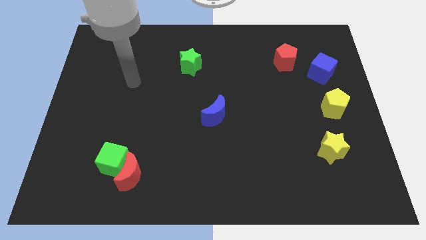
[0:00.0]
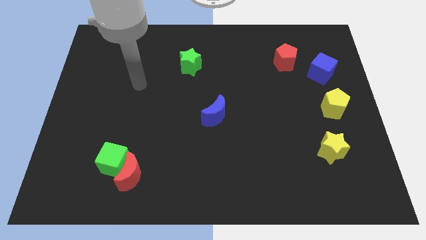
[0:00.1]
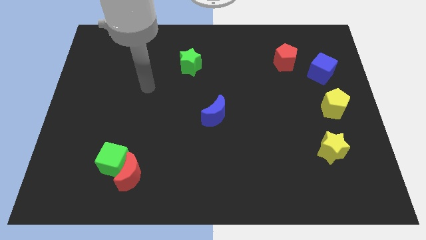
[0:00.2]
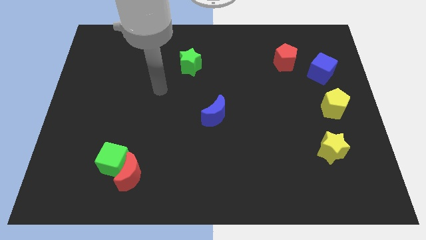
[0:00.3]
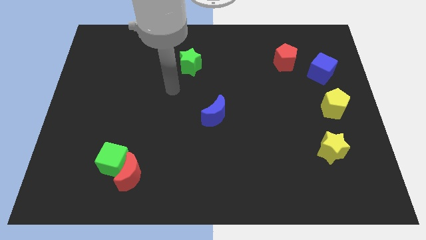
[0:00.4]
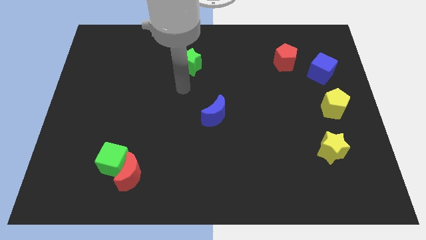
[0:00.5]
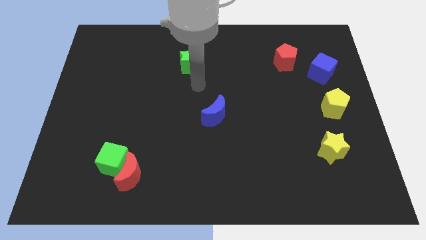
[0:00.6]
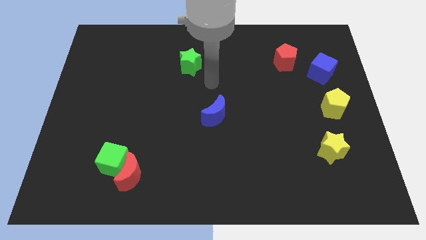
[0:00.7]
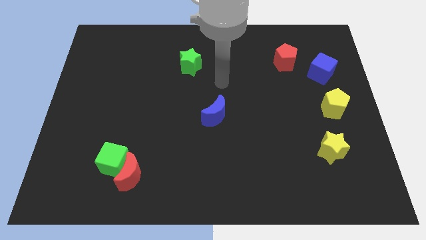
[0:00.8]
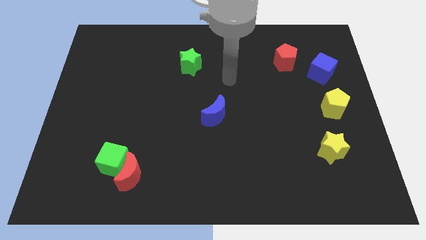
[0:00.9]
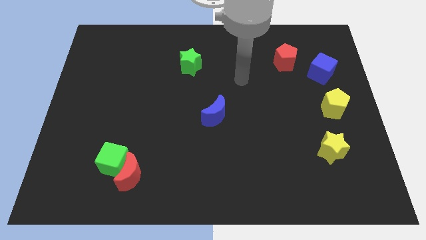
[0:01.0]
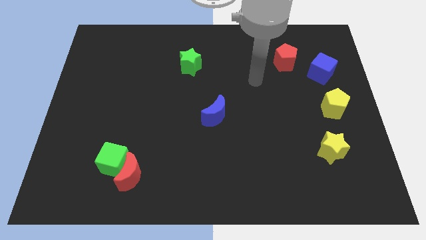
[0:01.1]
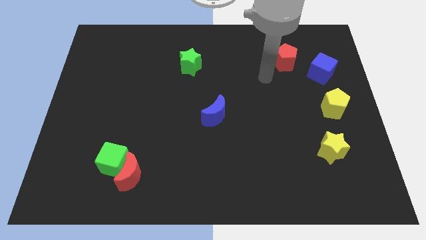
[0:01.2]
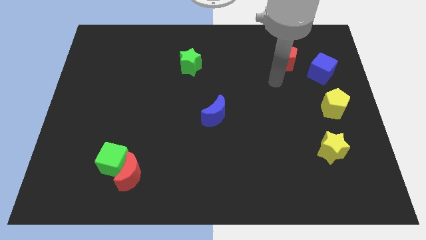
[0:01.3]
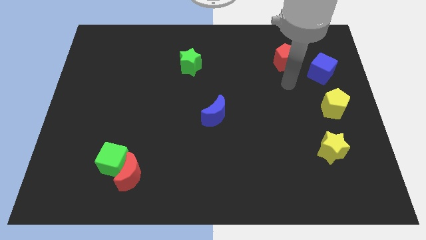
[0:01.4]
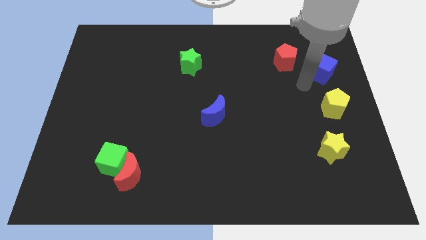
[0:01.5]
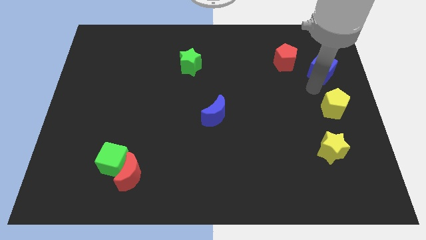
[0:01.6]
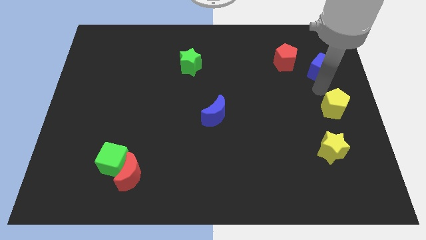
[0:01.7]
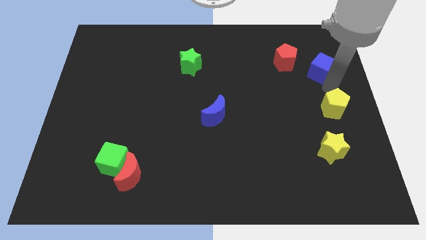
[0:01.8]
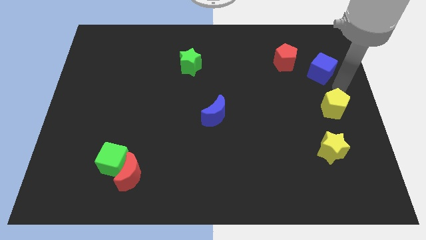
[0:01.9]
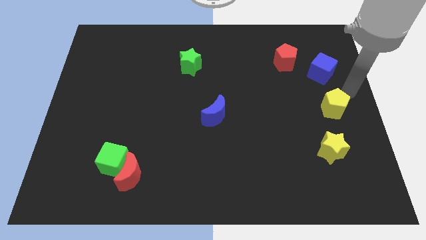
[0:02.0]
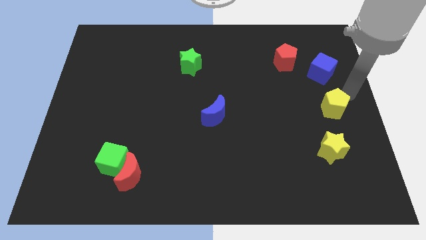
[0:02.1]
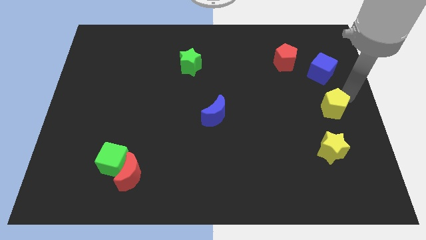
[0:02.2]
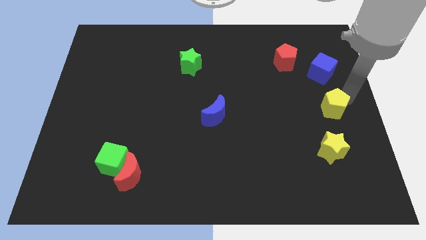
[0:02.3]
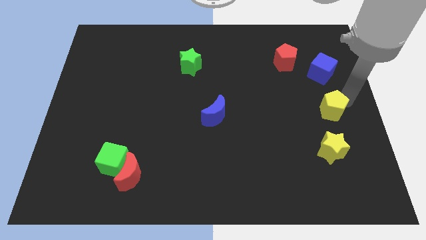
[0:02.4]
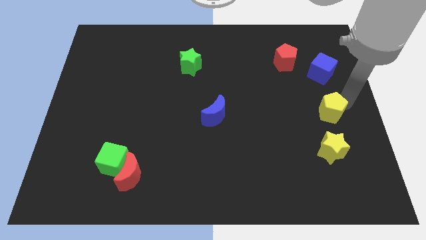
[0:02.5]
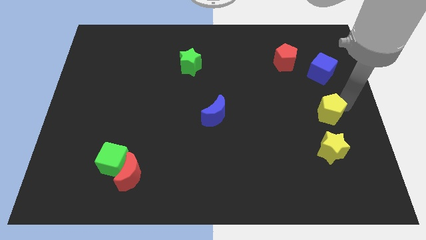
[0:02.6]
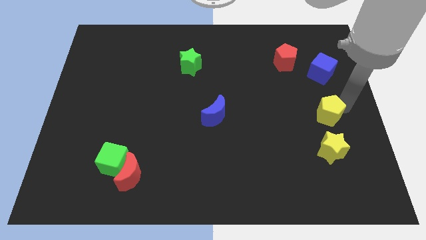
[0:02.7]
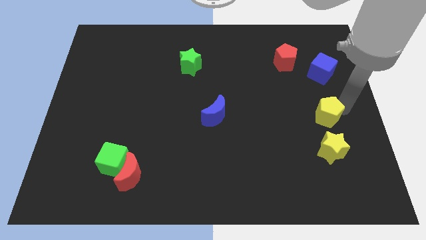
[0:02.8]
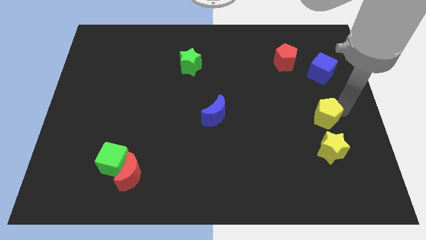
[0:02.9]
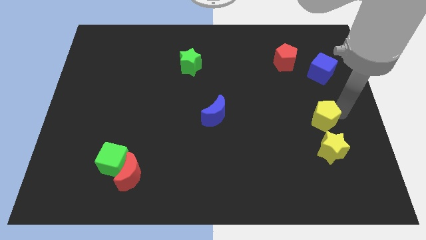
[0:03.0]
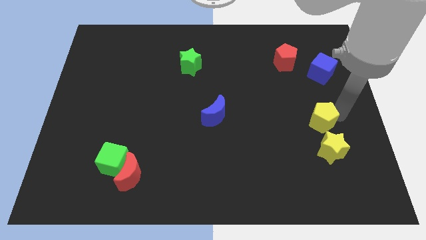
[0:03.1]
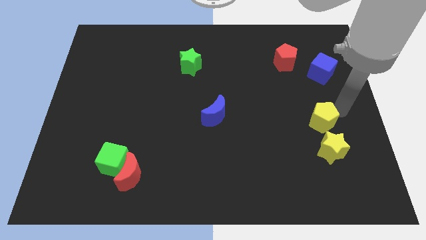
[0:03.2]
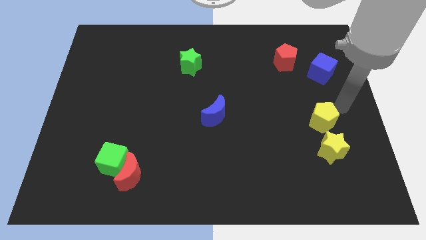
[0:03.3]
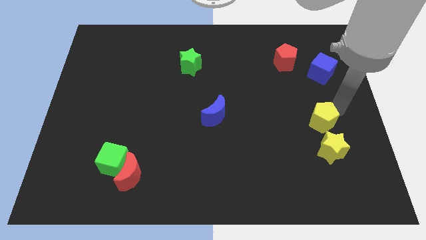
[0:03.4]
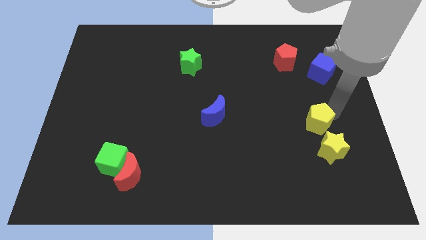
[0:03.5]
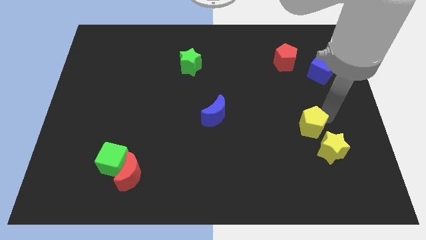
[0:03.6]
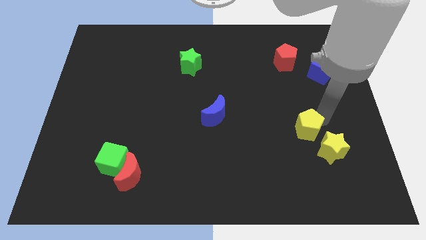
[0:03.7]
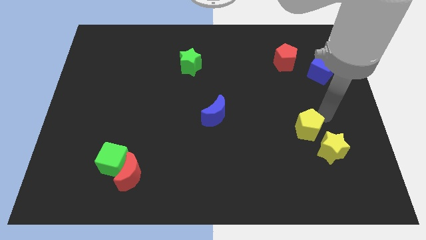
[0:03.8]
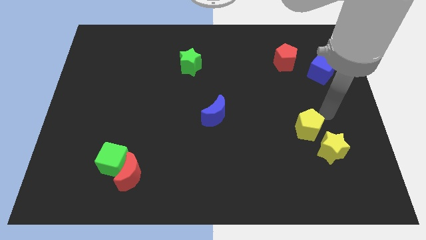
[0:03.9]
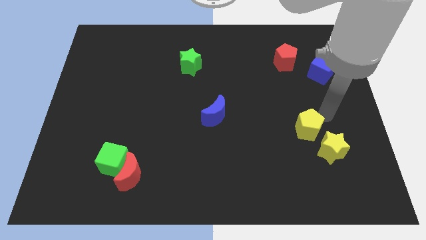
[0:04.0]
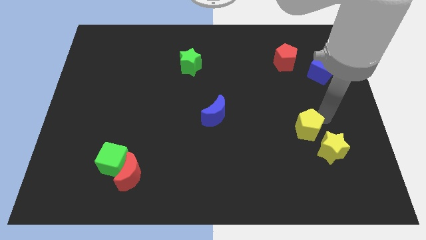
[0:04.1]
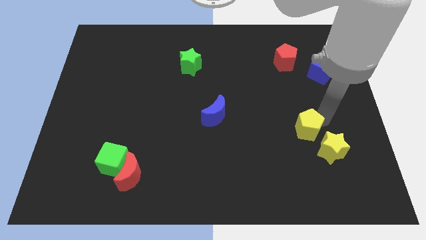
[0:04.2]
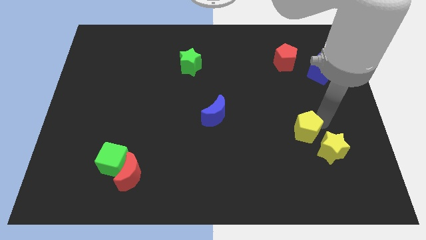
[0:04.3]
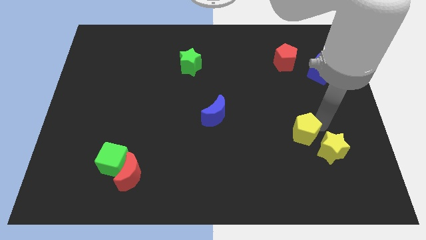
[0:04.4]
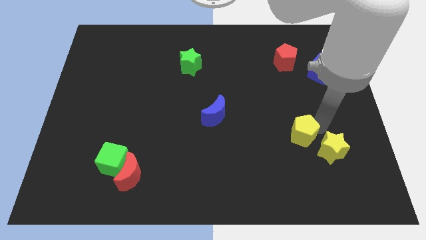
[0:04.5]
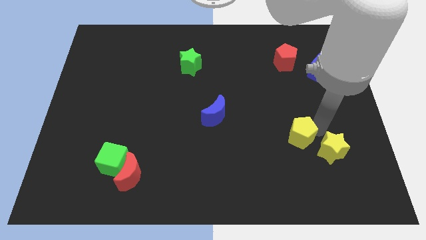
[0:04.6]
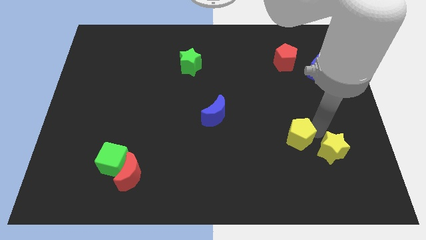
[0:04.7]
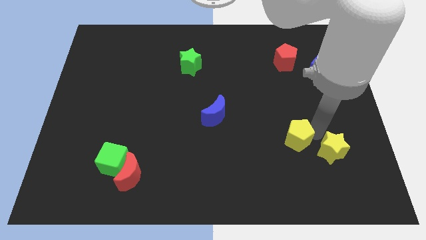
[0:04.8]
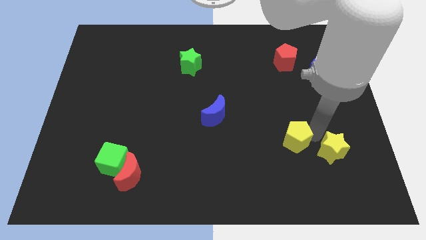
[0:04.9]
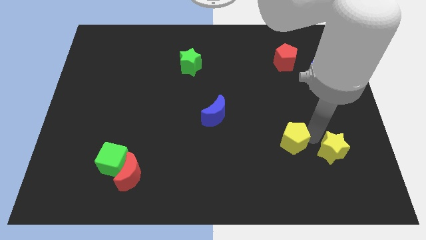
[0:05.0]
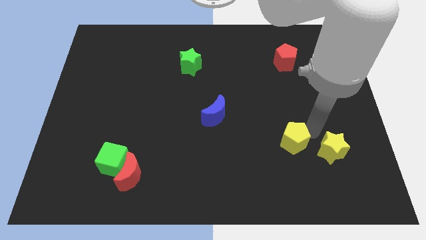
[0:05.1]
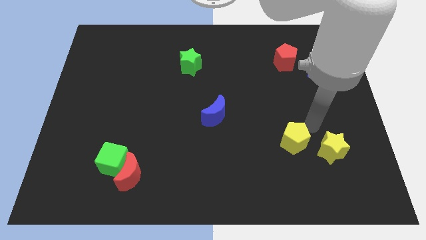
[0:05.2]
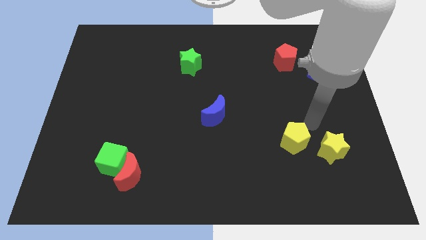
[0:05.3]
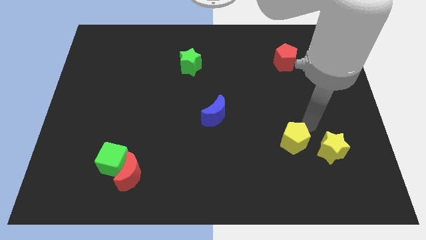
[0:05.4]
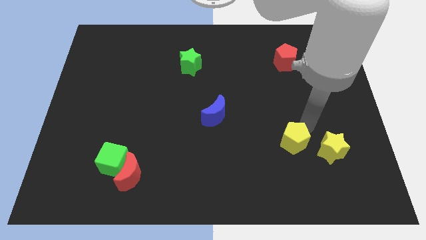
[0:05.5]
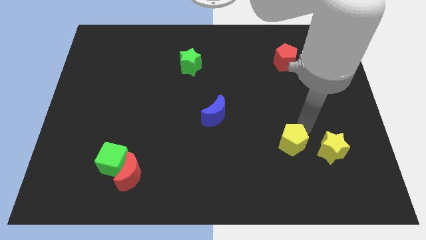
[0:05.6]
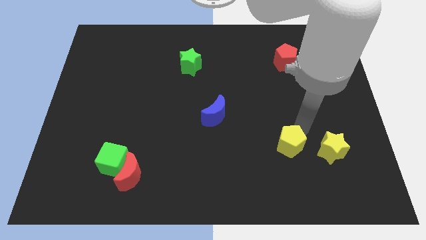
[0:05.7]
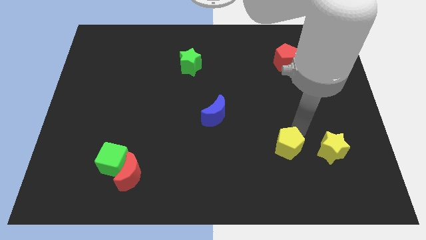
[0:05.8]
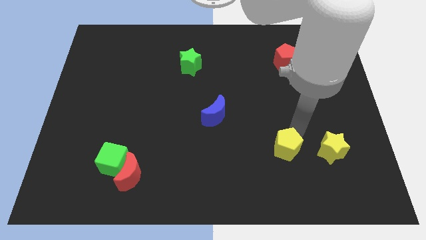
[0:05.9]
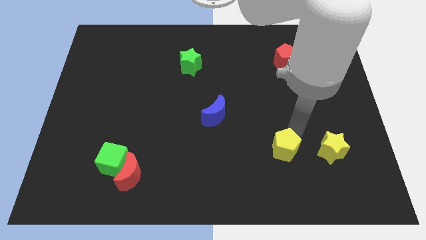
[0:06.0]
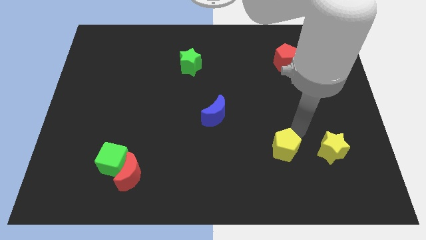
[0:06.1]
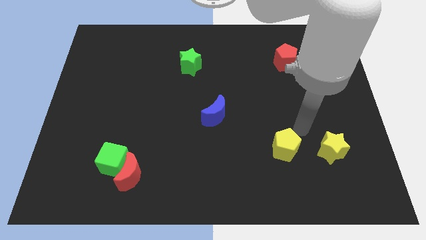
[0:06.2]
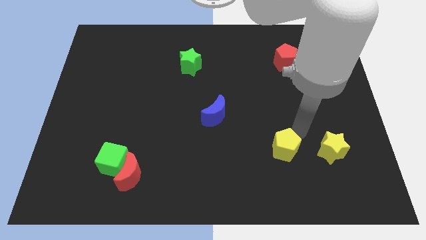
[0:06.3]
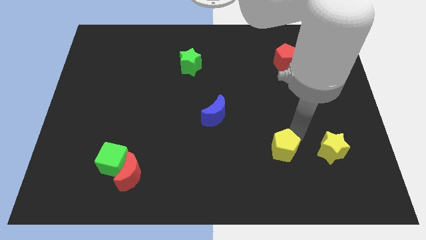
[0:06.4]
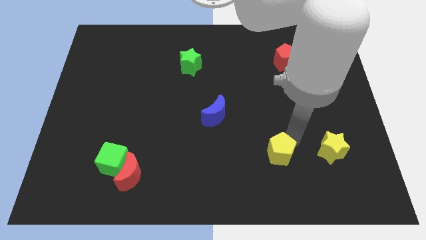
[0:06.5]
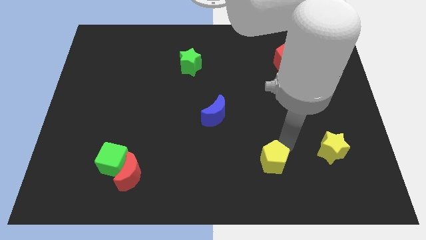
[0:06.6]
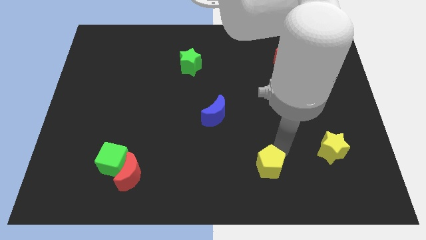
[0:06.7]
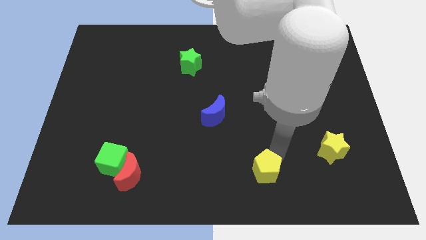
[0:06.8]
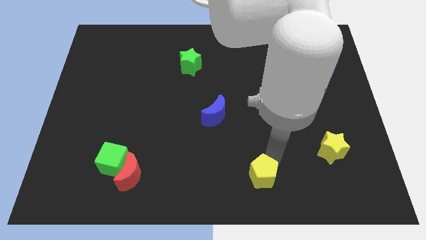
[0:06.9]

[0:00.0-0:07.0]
put the yellow pentagon to the bottom
